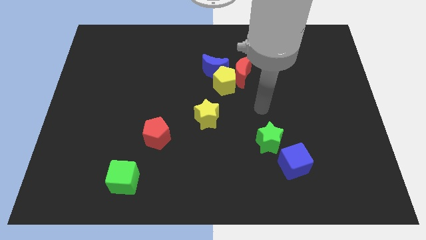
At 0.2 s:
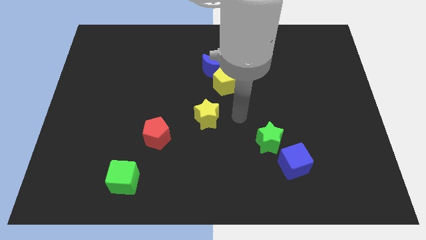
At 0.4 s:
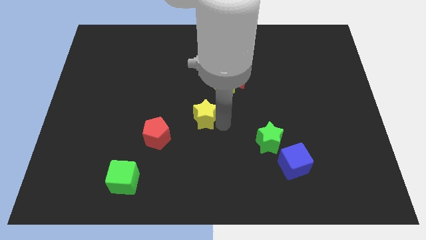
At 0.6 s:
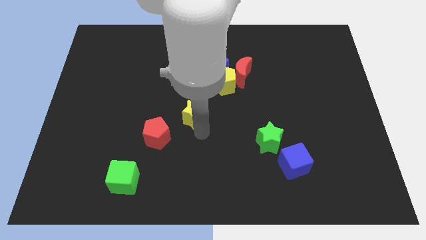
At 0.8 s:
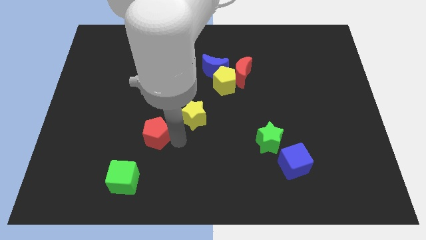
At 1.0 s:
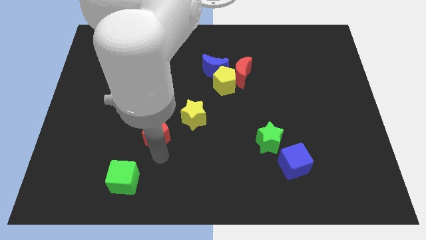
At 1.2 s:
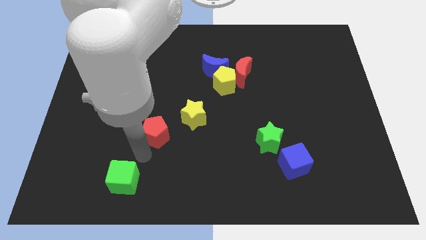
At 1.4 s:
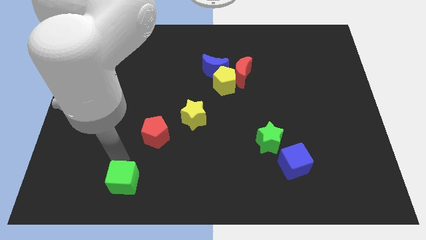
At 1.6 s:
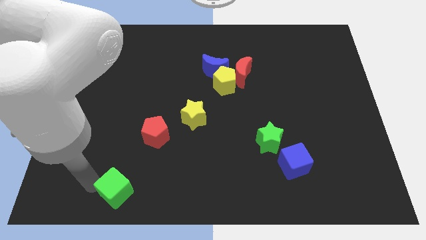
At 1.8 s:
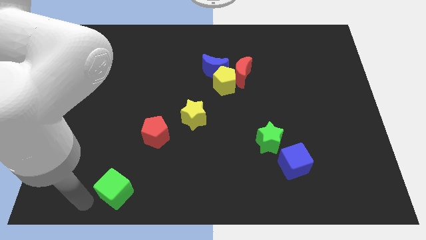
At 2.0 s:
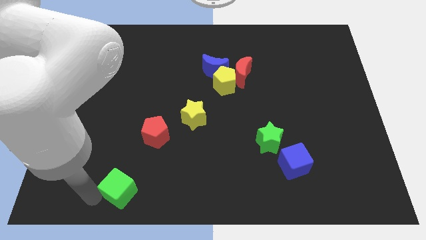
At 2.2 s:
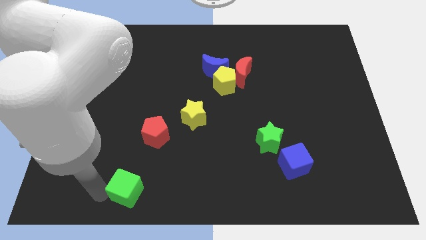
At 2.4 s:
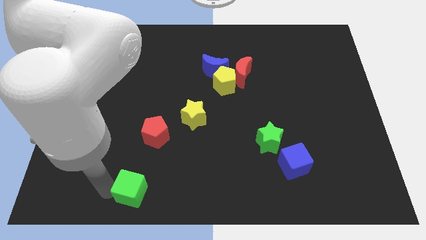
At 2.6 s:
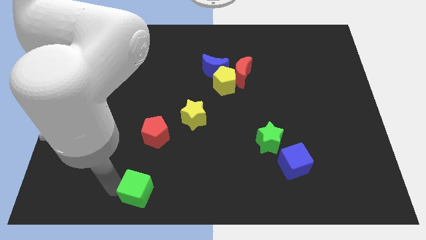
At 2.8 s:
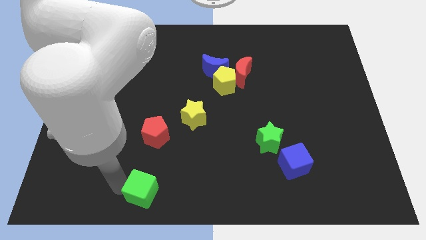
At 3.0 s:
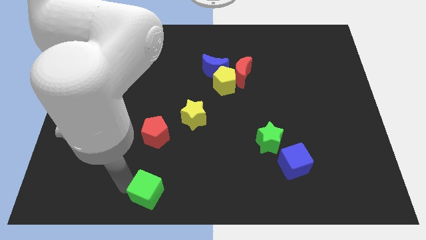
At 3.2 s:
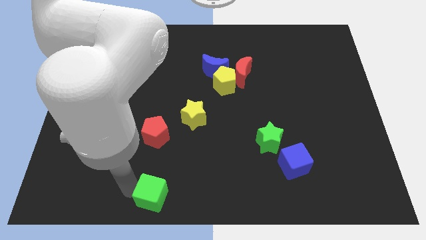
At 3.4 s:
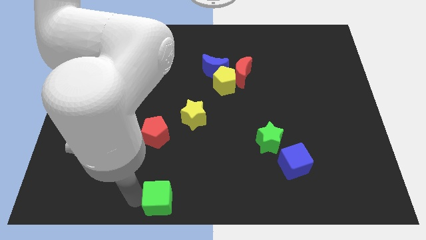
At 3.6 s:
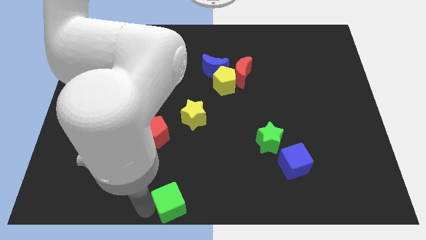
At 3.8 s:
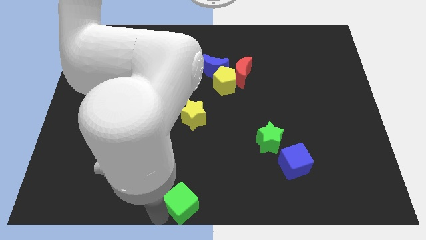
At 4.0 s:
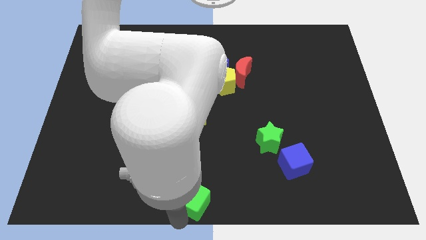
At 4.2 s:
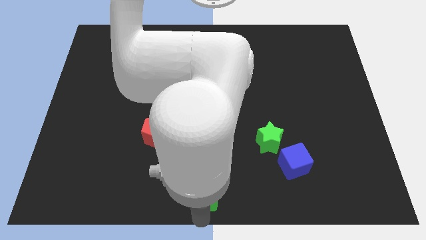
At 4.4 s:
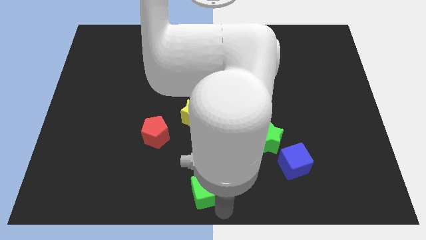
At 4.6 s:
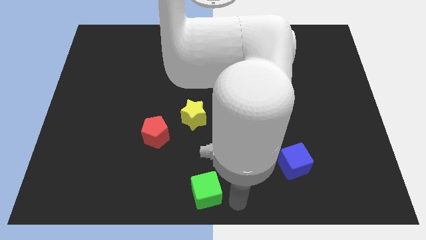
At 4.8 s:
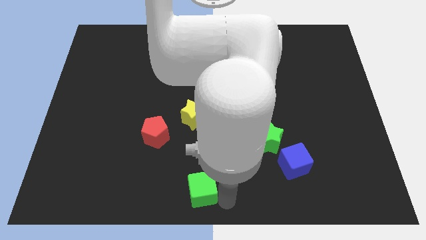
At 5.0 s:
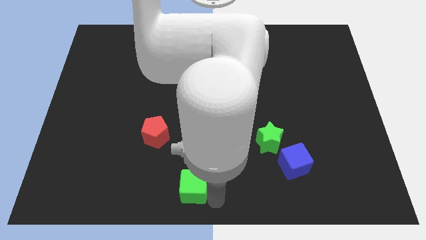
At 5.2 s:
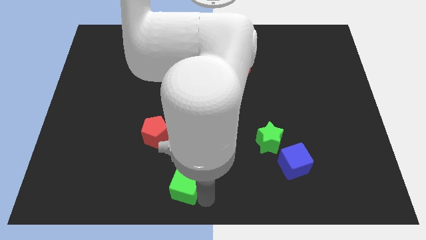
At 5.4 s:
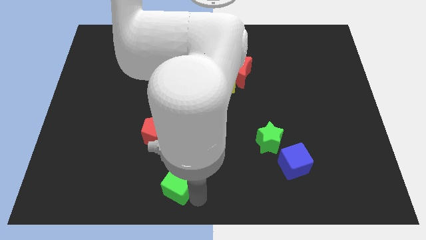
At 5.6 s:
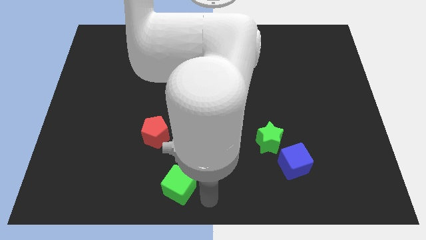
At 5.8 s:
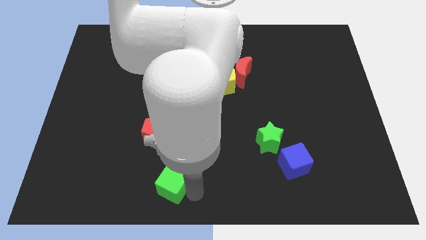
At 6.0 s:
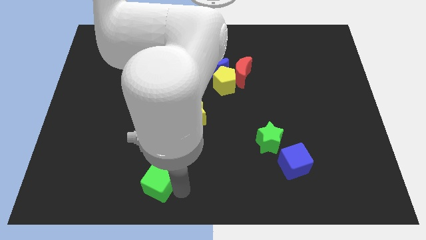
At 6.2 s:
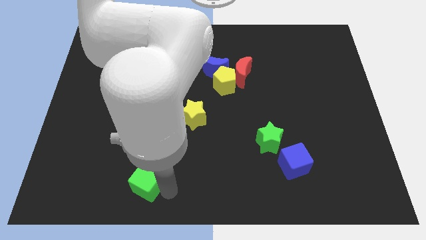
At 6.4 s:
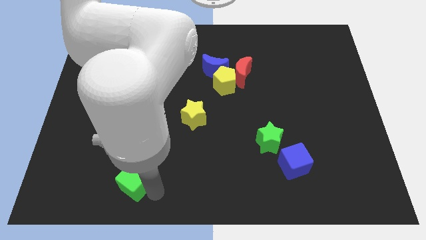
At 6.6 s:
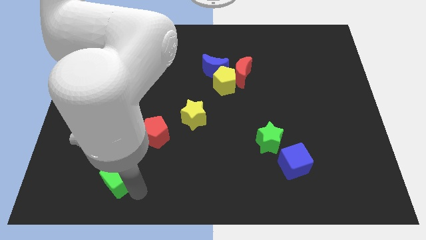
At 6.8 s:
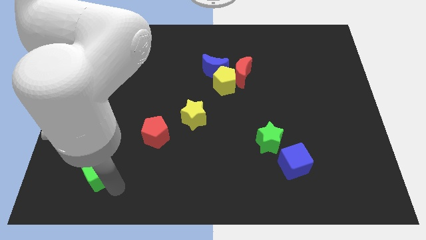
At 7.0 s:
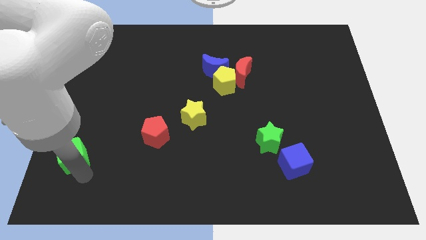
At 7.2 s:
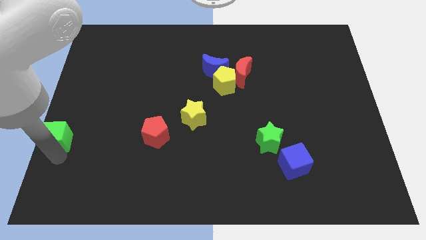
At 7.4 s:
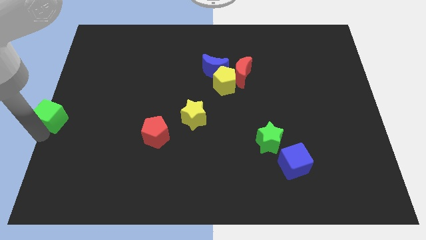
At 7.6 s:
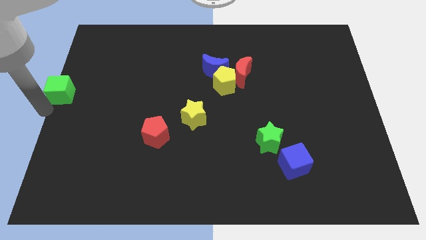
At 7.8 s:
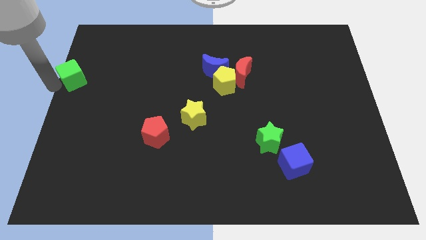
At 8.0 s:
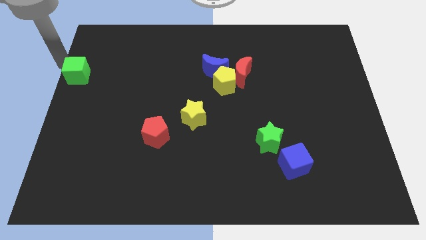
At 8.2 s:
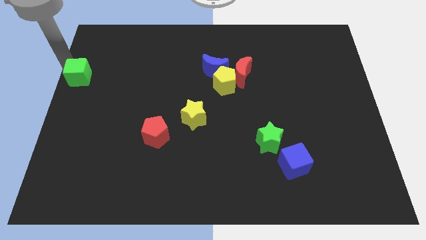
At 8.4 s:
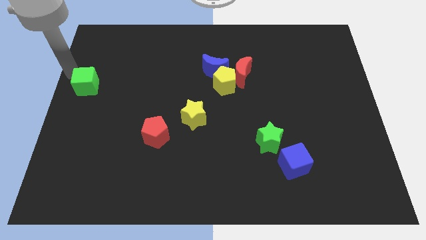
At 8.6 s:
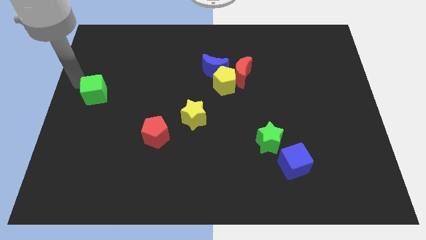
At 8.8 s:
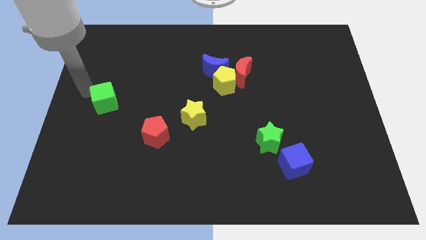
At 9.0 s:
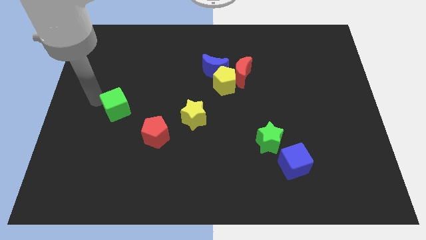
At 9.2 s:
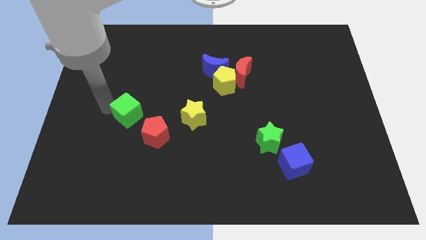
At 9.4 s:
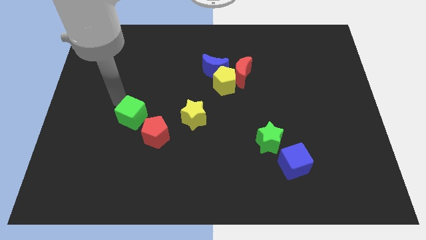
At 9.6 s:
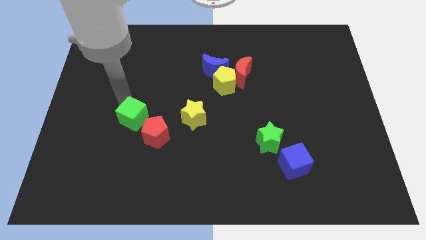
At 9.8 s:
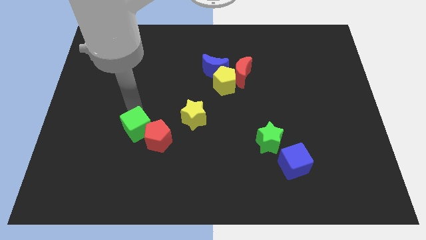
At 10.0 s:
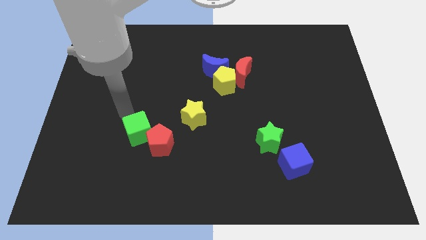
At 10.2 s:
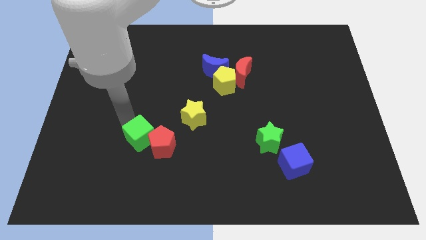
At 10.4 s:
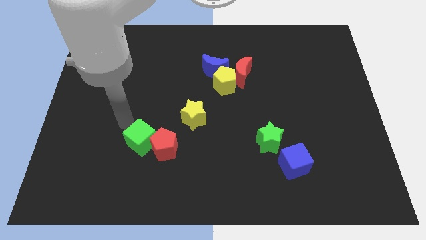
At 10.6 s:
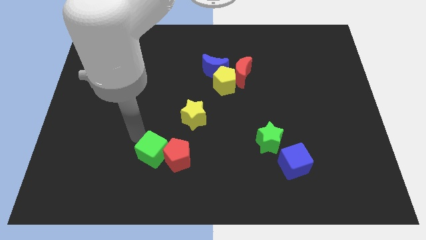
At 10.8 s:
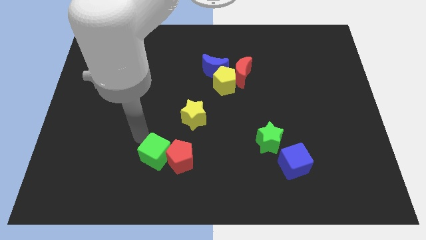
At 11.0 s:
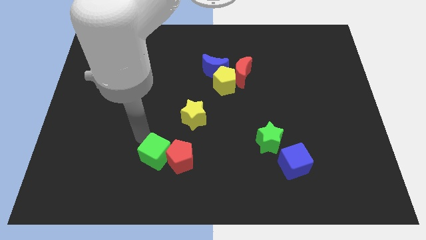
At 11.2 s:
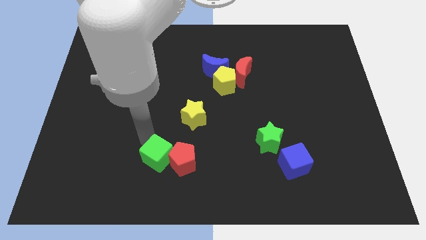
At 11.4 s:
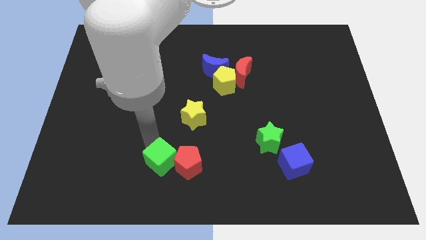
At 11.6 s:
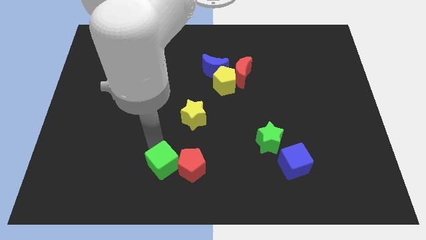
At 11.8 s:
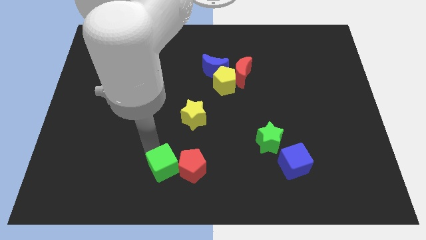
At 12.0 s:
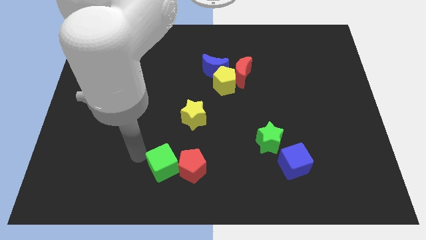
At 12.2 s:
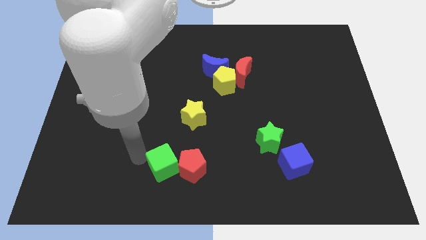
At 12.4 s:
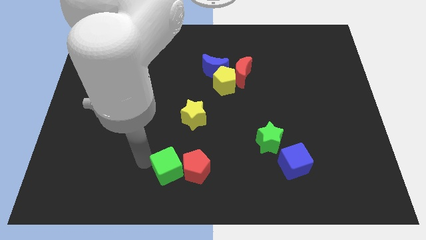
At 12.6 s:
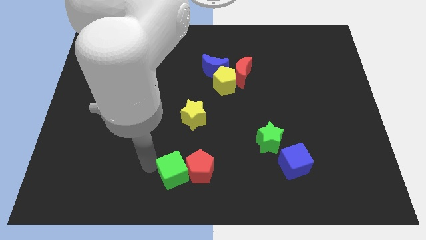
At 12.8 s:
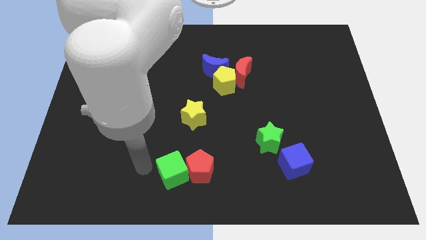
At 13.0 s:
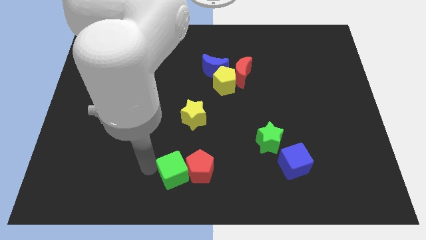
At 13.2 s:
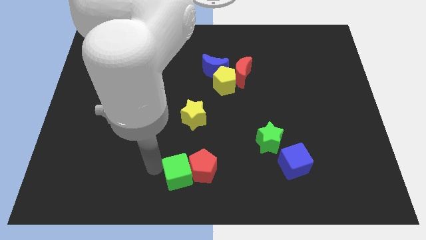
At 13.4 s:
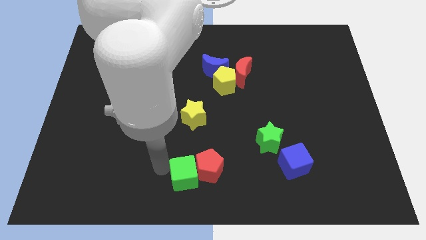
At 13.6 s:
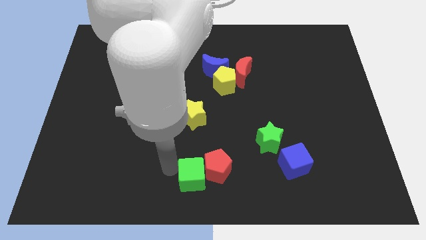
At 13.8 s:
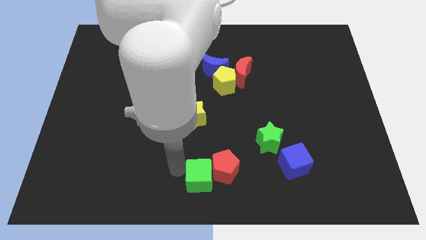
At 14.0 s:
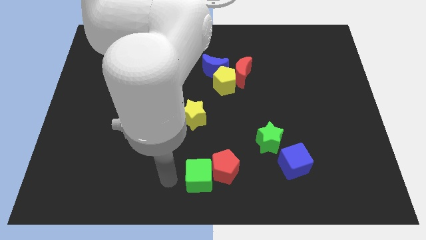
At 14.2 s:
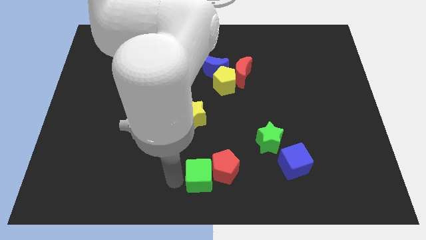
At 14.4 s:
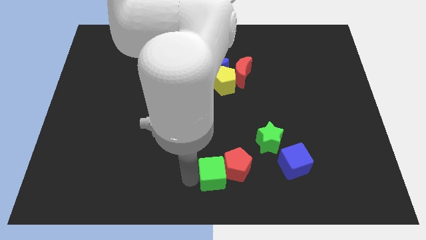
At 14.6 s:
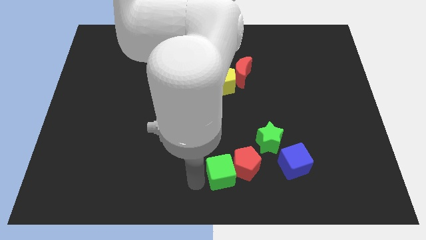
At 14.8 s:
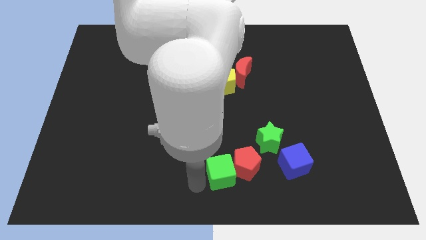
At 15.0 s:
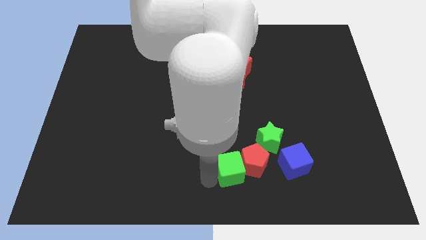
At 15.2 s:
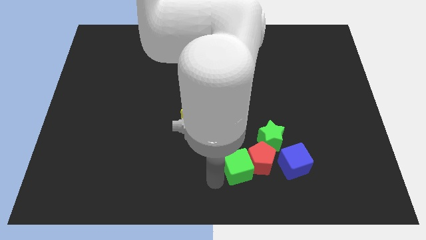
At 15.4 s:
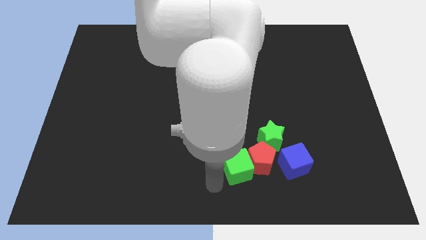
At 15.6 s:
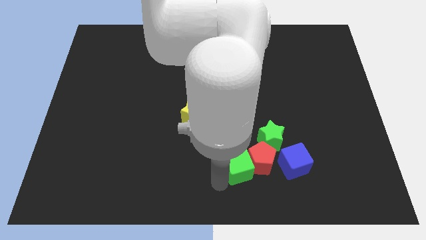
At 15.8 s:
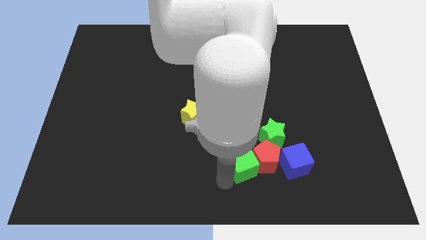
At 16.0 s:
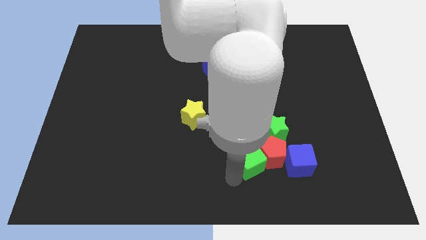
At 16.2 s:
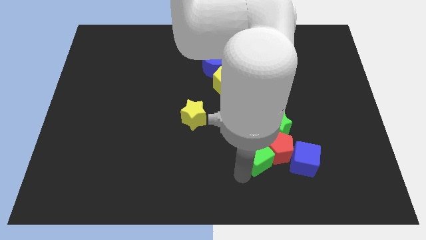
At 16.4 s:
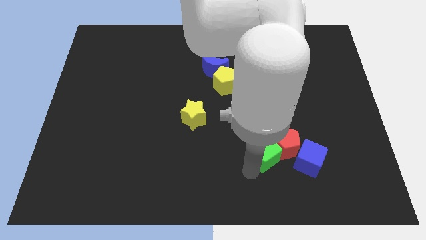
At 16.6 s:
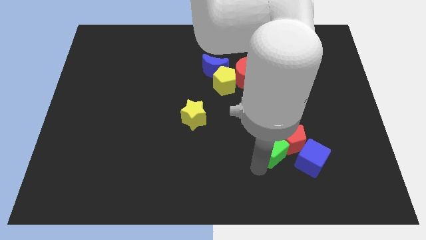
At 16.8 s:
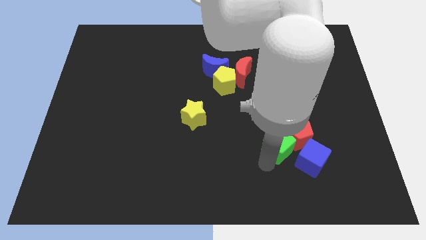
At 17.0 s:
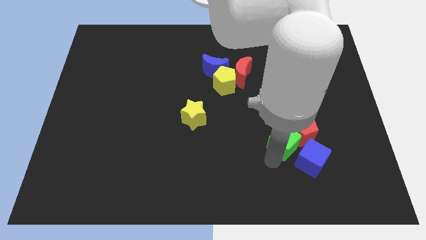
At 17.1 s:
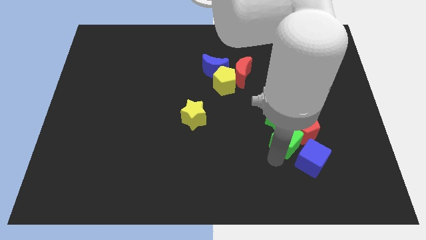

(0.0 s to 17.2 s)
slide the green cube next to the green star
